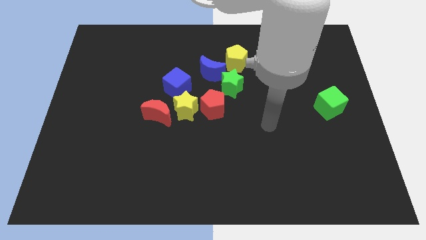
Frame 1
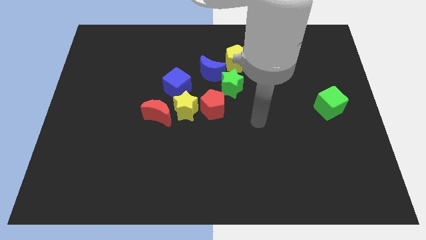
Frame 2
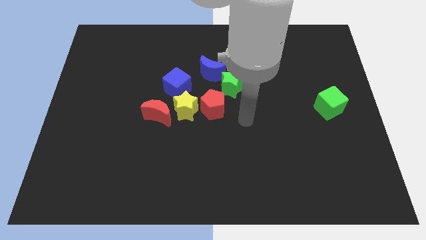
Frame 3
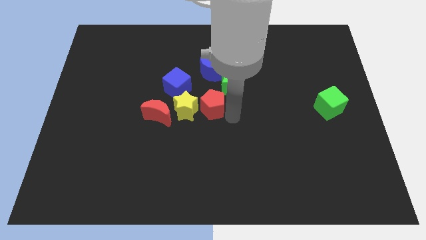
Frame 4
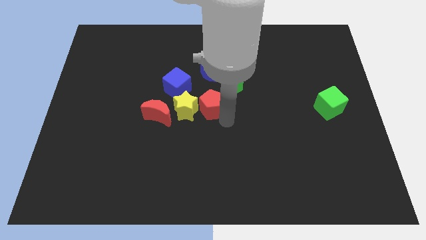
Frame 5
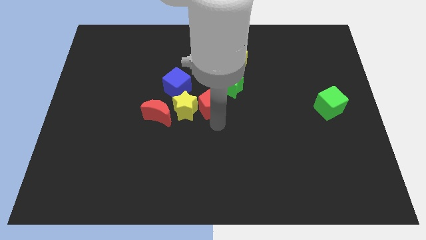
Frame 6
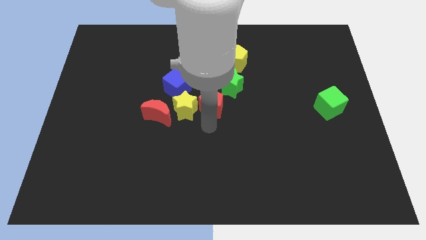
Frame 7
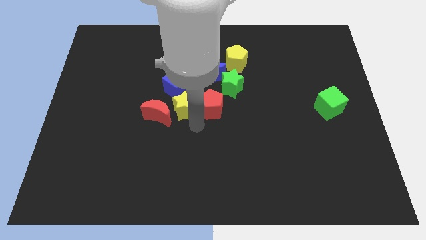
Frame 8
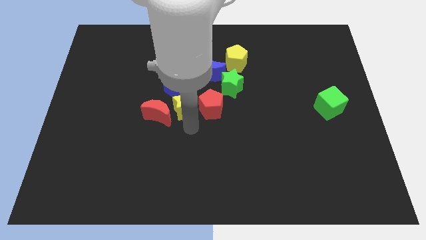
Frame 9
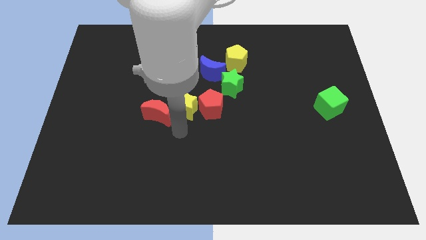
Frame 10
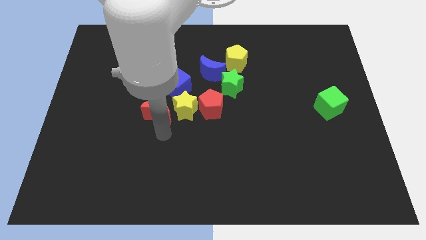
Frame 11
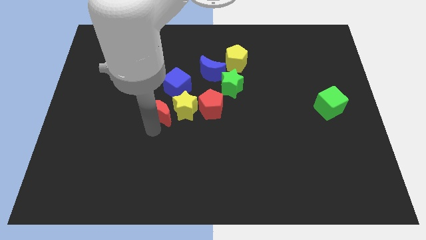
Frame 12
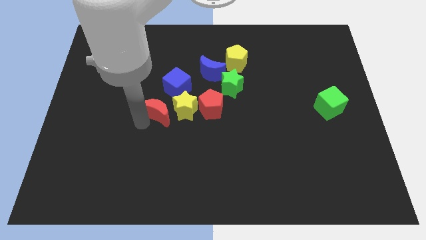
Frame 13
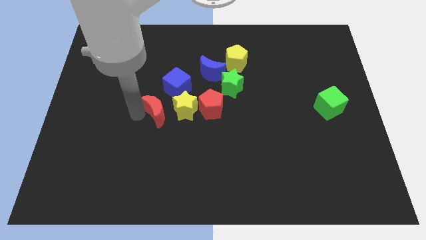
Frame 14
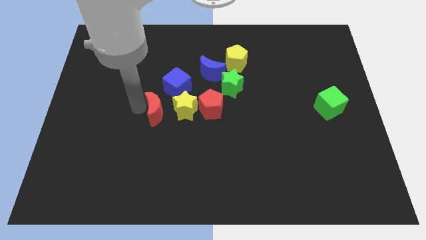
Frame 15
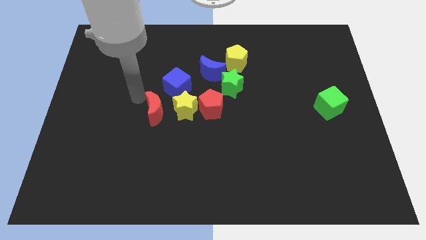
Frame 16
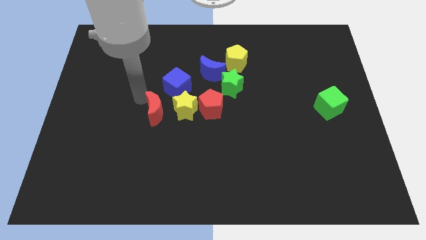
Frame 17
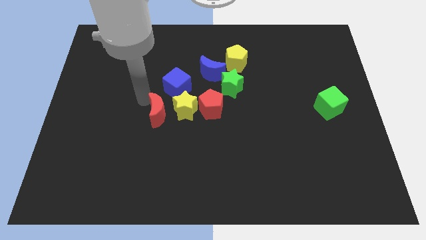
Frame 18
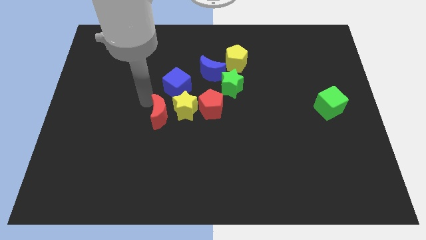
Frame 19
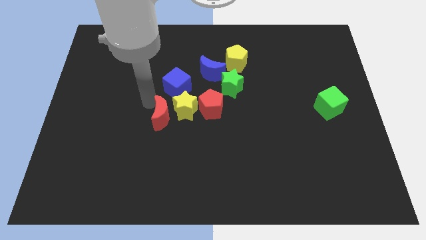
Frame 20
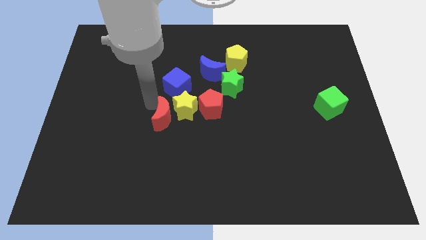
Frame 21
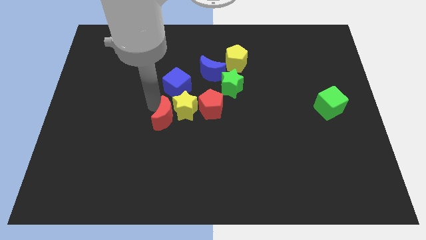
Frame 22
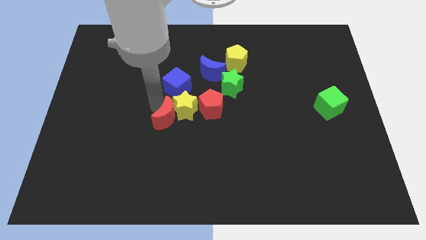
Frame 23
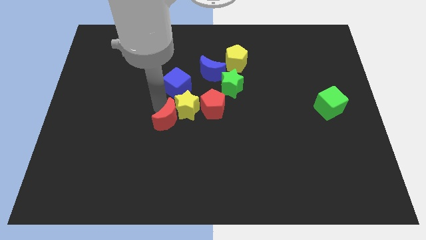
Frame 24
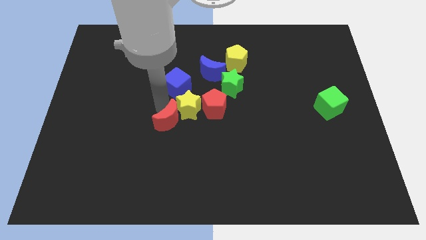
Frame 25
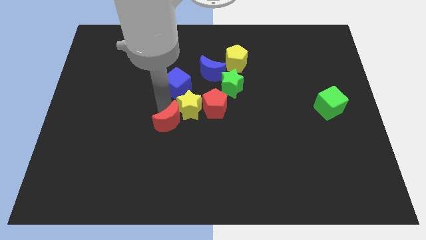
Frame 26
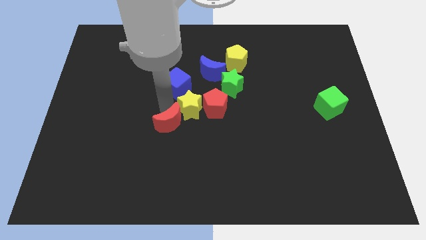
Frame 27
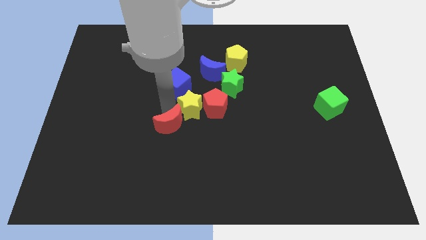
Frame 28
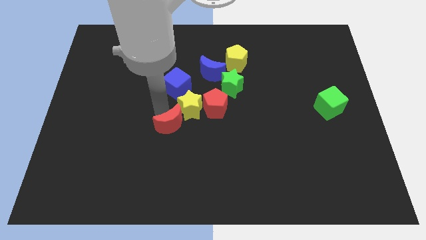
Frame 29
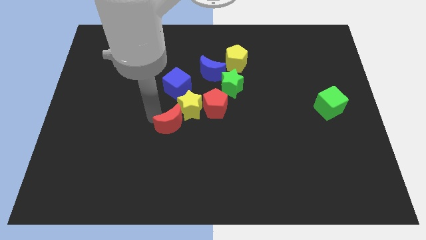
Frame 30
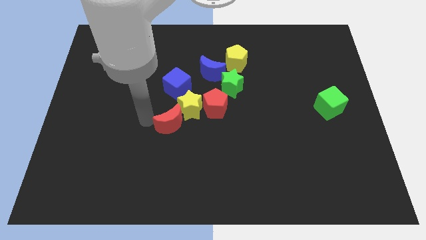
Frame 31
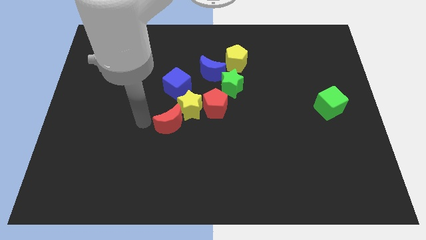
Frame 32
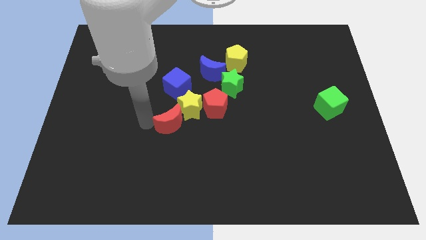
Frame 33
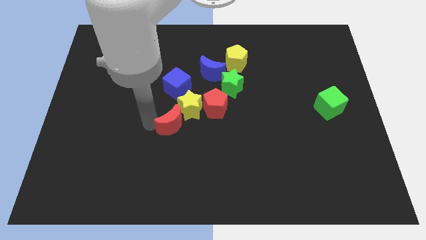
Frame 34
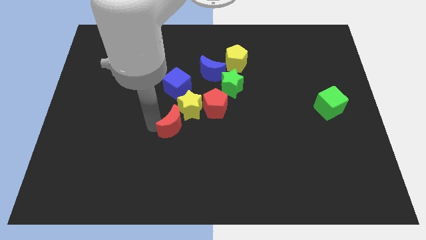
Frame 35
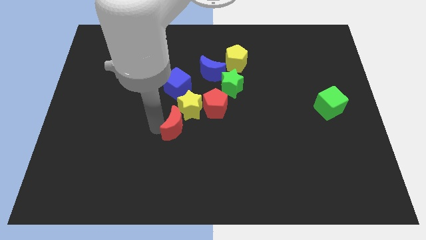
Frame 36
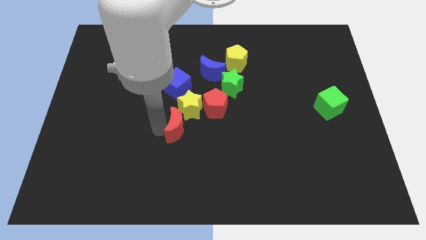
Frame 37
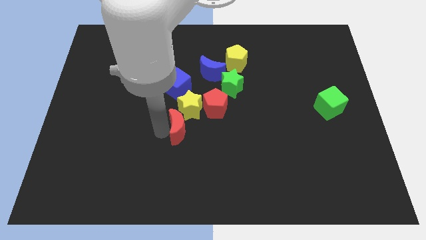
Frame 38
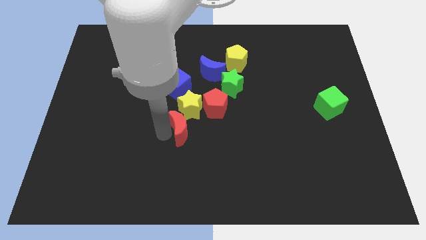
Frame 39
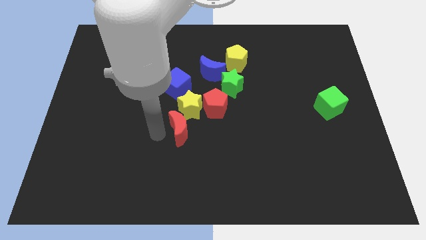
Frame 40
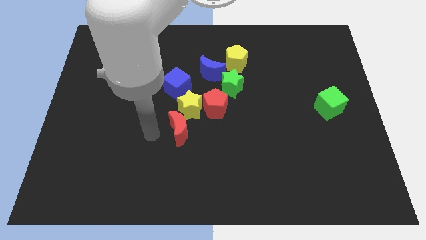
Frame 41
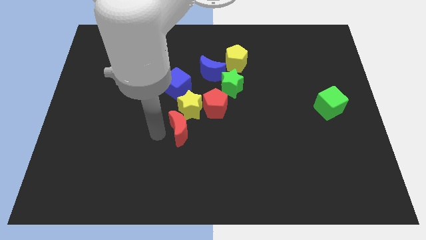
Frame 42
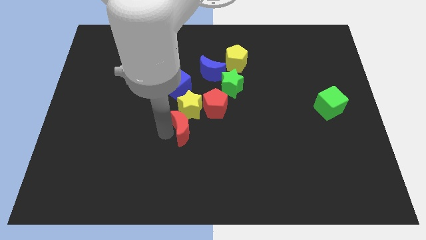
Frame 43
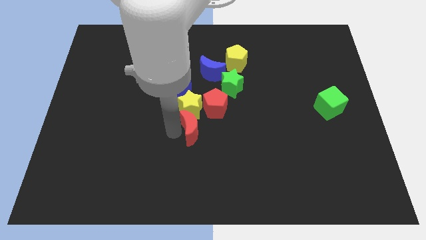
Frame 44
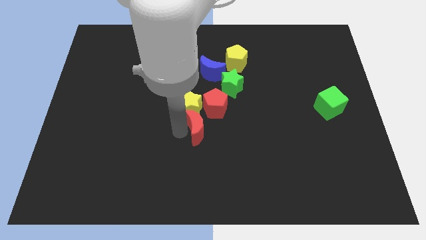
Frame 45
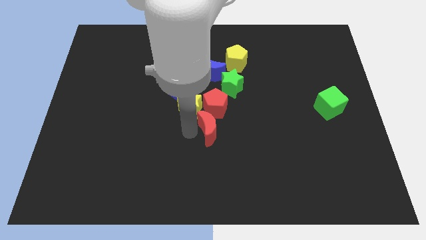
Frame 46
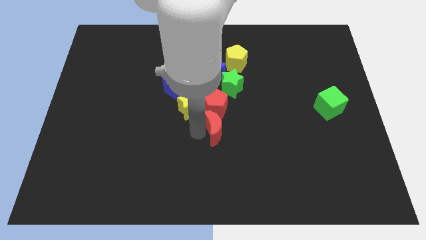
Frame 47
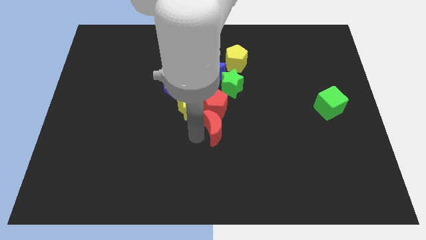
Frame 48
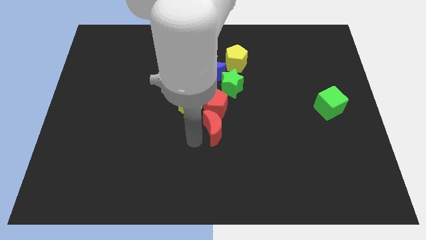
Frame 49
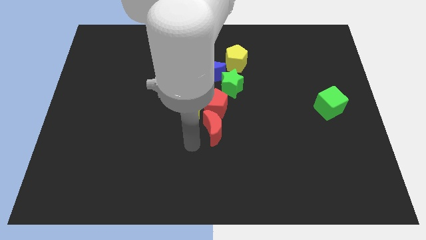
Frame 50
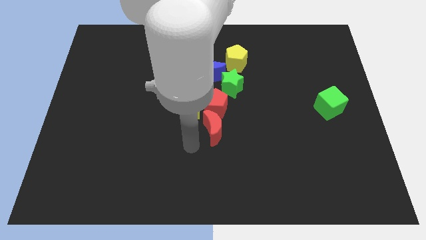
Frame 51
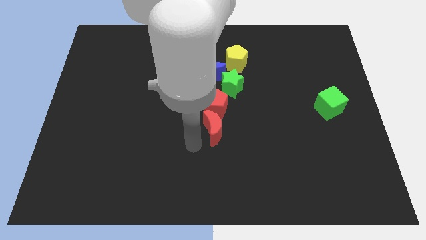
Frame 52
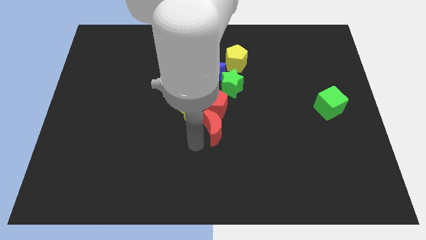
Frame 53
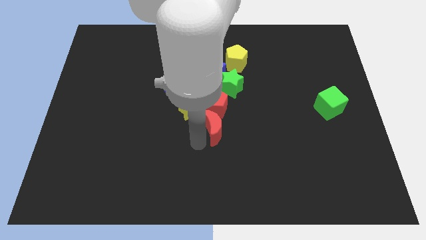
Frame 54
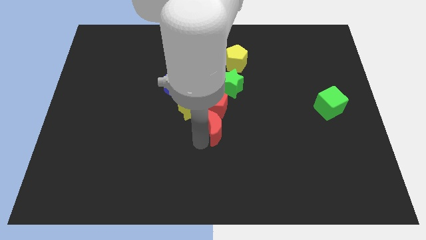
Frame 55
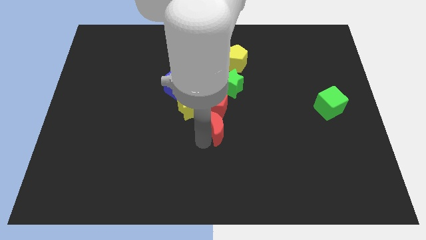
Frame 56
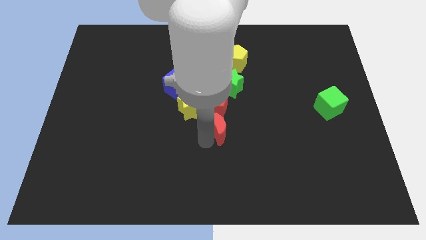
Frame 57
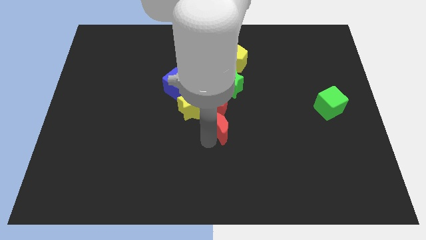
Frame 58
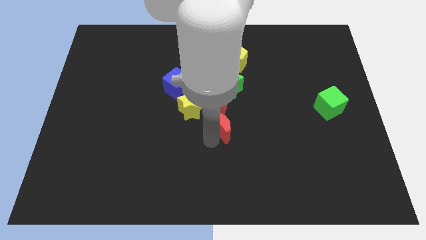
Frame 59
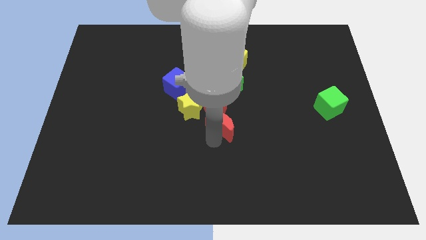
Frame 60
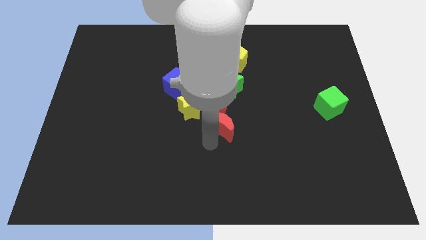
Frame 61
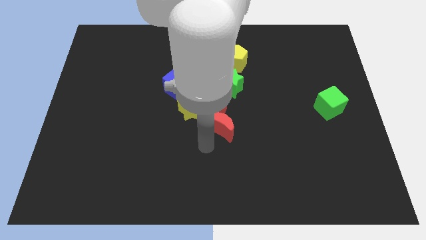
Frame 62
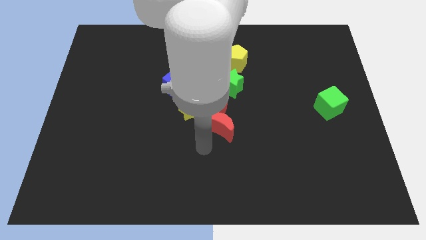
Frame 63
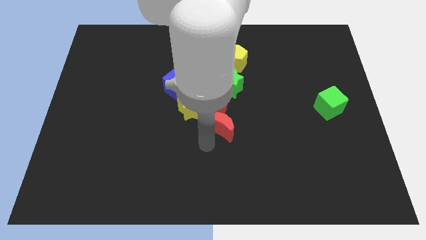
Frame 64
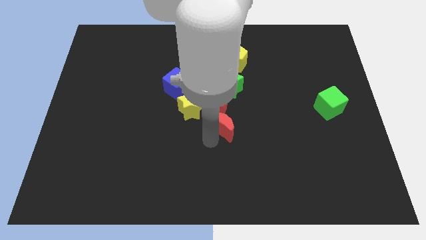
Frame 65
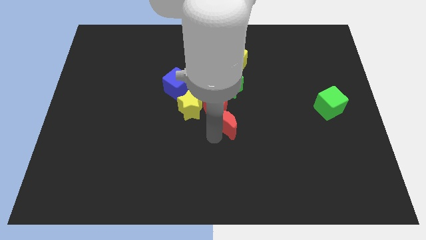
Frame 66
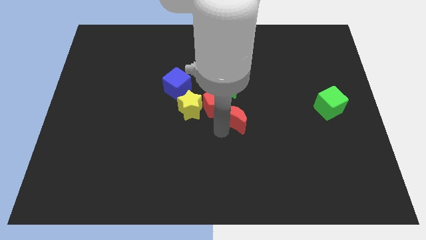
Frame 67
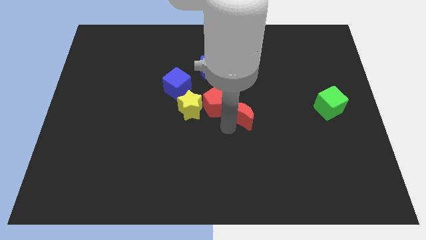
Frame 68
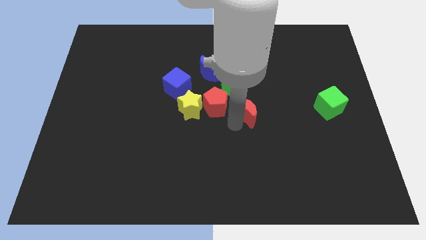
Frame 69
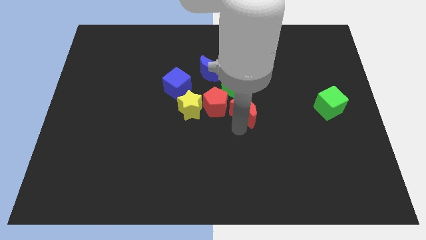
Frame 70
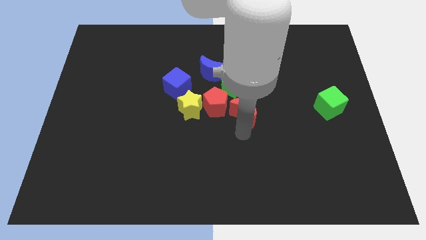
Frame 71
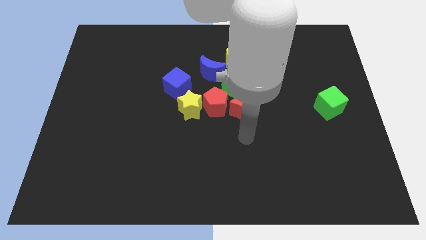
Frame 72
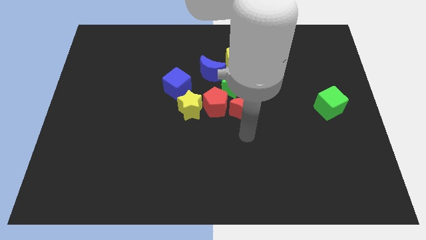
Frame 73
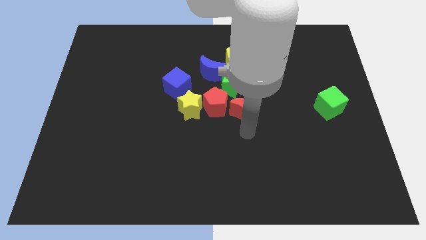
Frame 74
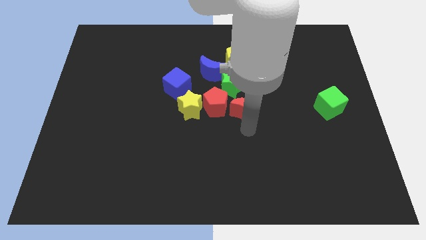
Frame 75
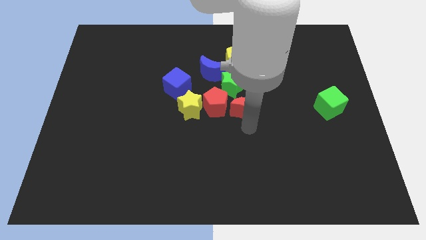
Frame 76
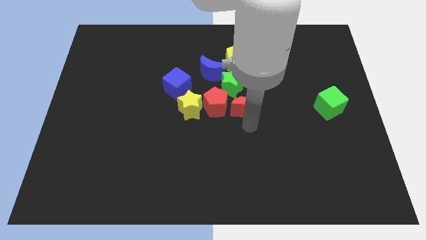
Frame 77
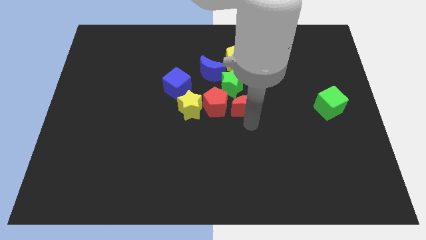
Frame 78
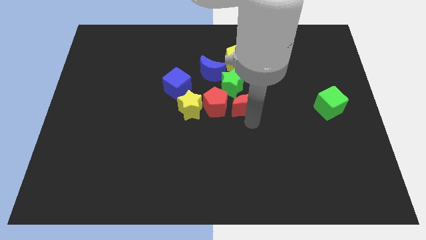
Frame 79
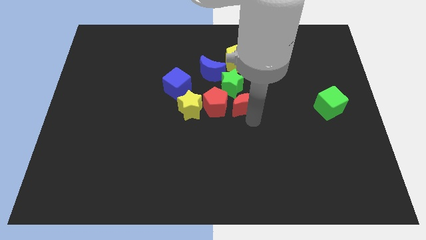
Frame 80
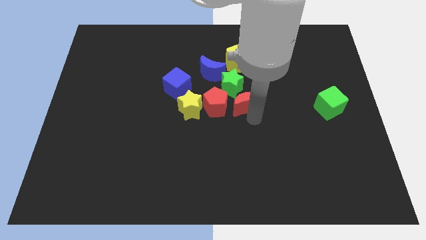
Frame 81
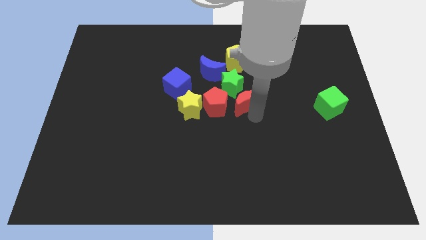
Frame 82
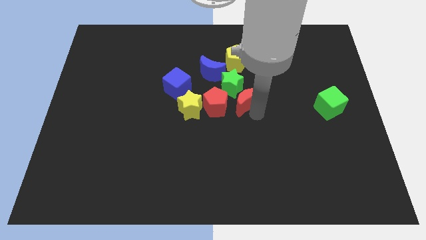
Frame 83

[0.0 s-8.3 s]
slide the red moon diagonally down and to the right of the blue moon
